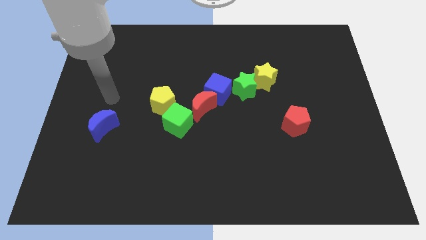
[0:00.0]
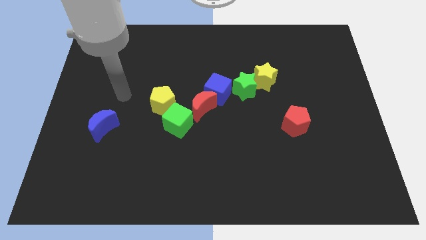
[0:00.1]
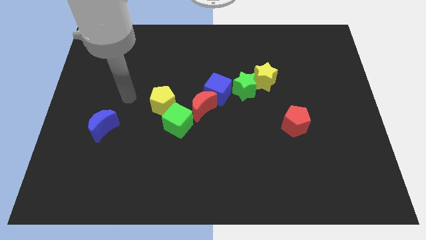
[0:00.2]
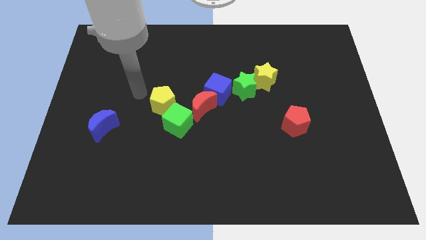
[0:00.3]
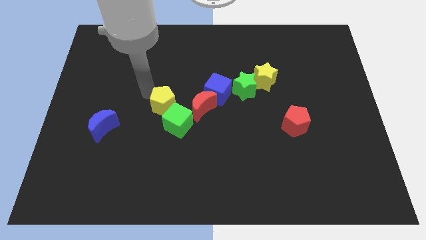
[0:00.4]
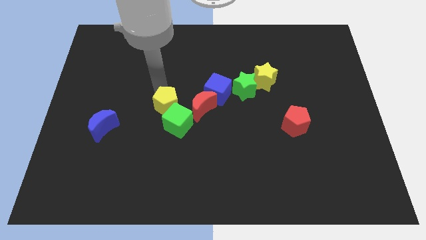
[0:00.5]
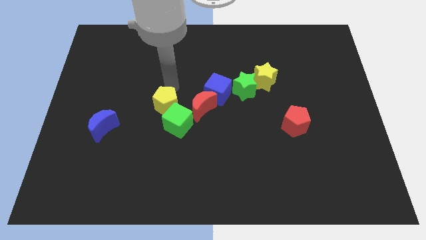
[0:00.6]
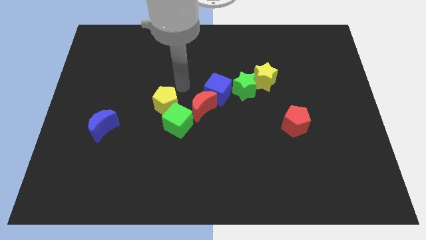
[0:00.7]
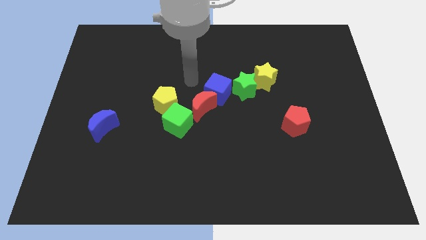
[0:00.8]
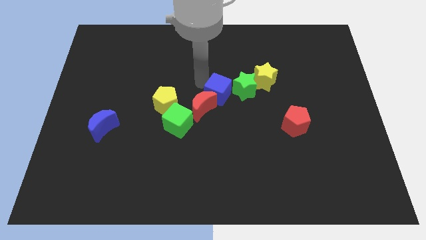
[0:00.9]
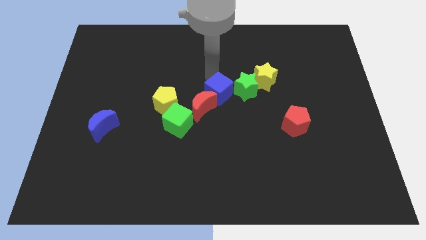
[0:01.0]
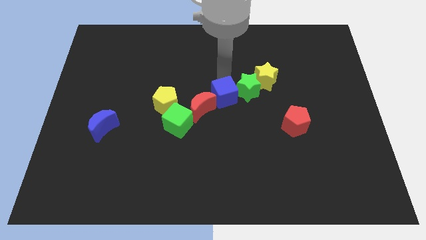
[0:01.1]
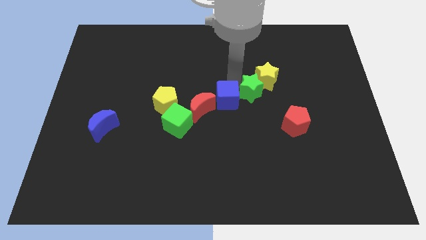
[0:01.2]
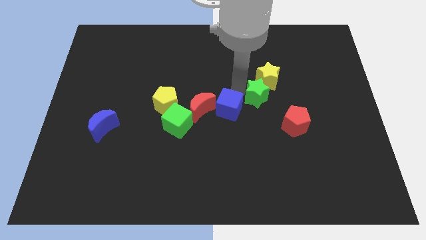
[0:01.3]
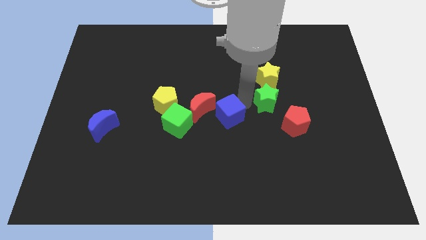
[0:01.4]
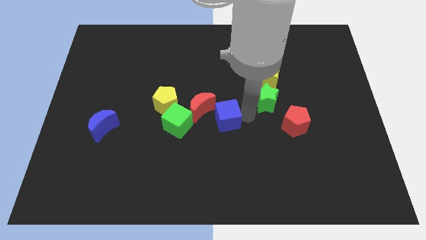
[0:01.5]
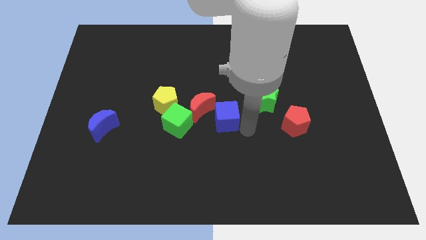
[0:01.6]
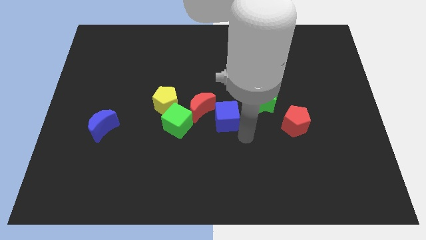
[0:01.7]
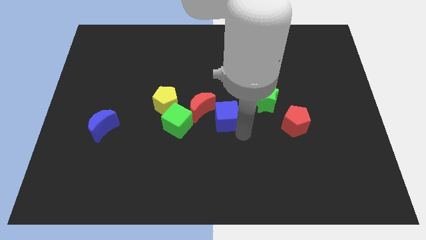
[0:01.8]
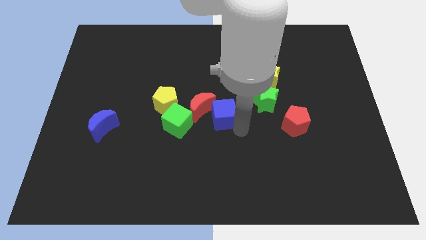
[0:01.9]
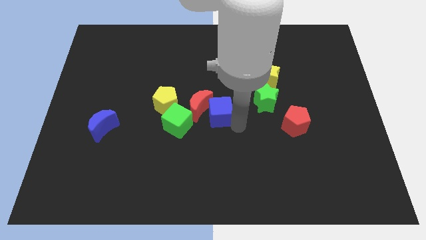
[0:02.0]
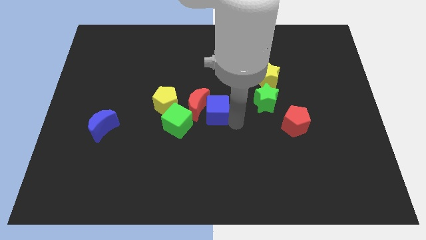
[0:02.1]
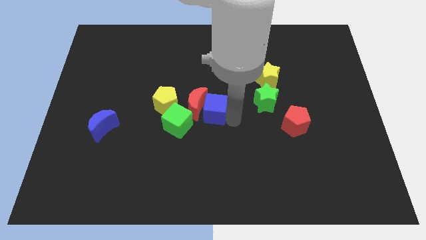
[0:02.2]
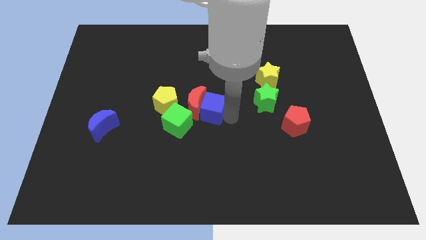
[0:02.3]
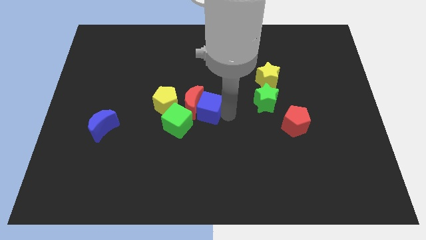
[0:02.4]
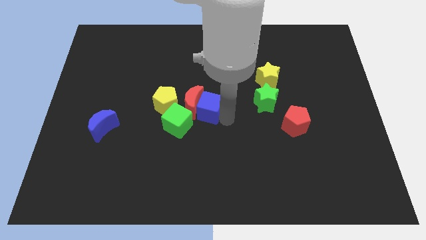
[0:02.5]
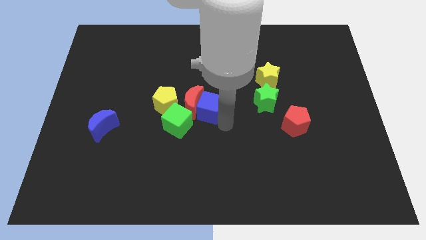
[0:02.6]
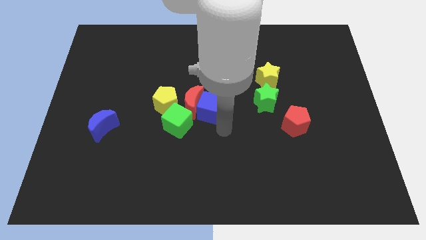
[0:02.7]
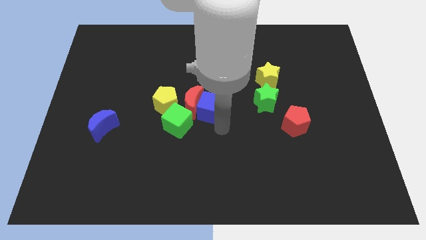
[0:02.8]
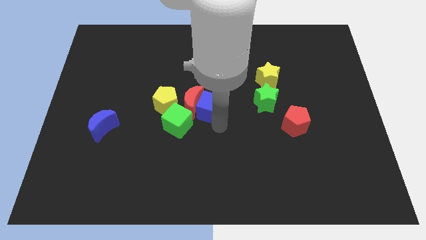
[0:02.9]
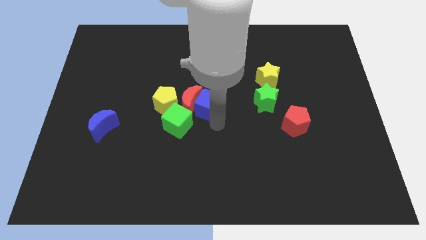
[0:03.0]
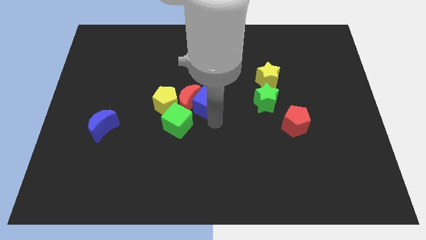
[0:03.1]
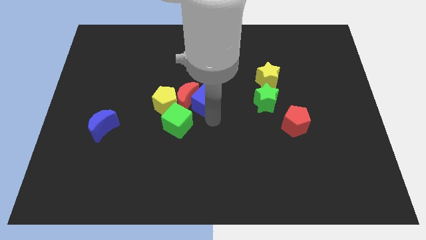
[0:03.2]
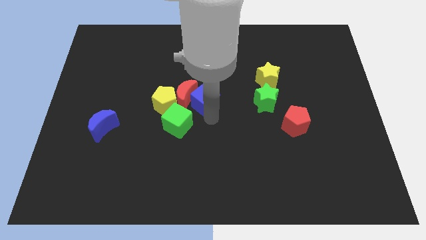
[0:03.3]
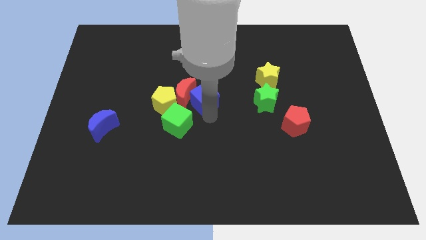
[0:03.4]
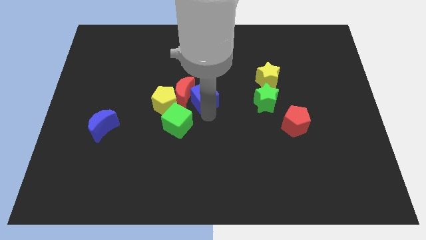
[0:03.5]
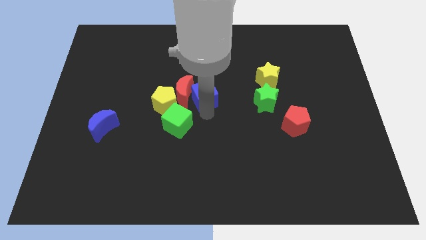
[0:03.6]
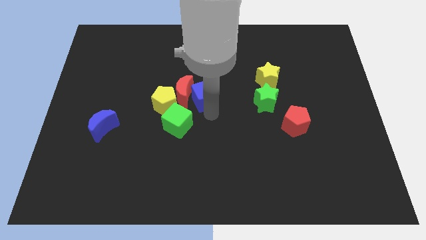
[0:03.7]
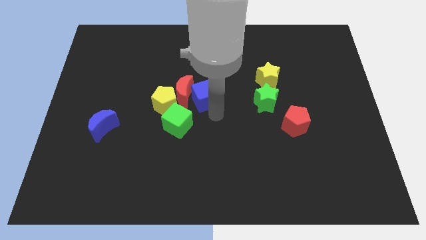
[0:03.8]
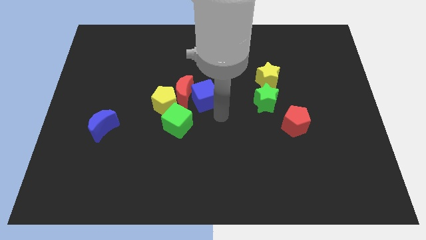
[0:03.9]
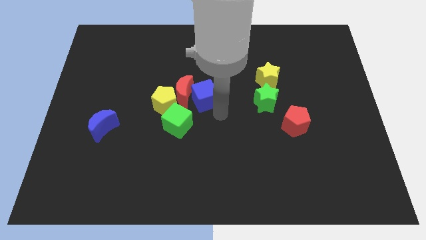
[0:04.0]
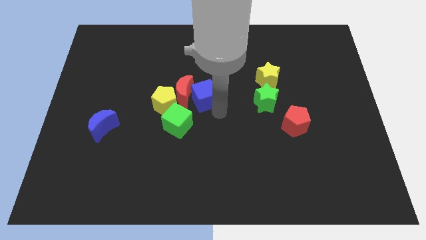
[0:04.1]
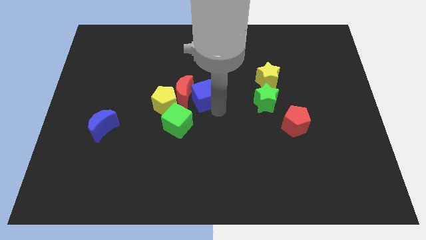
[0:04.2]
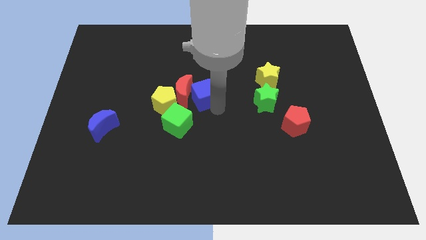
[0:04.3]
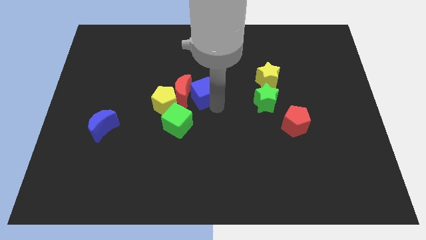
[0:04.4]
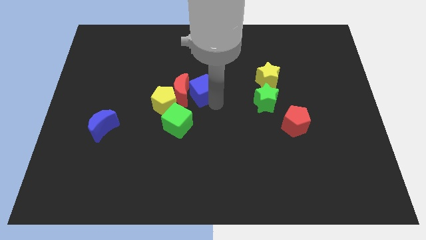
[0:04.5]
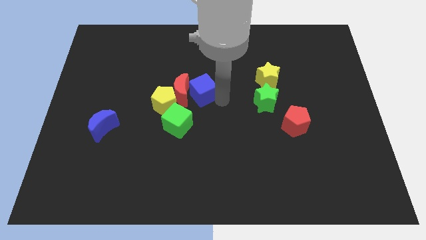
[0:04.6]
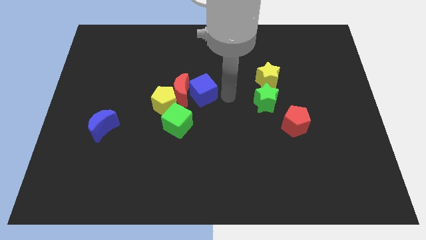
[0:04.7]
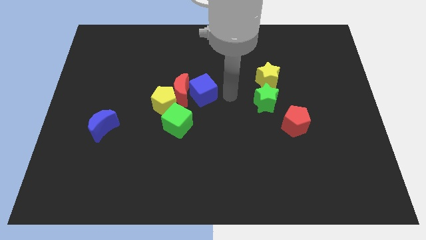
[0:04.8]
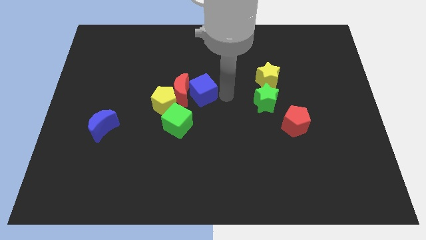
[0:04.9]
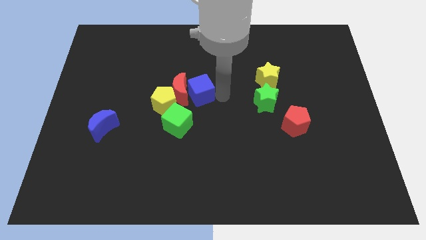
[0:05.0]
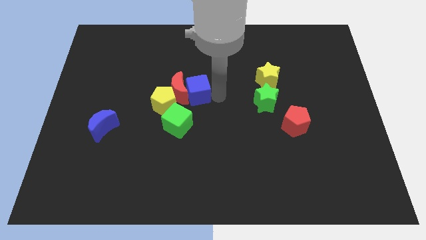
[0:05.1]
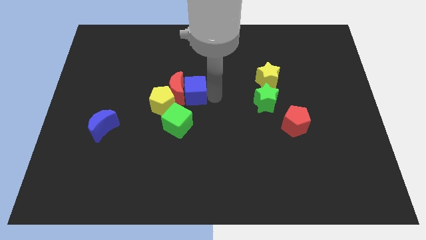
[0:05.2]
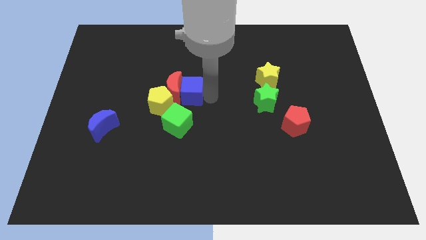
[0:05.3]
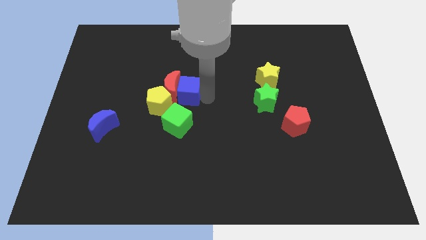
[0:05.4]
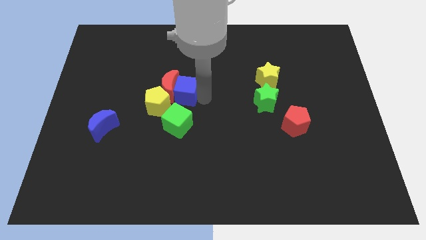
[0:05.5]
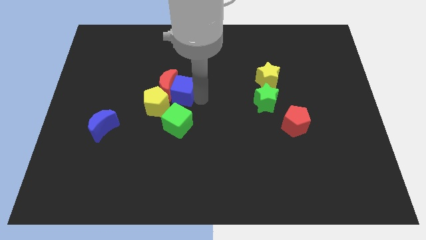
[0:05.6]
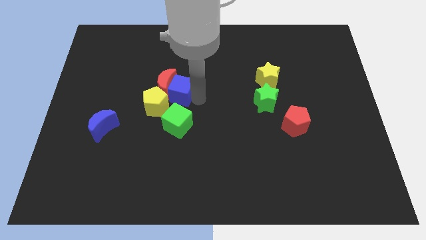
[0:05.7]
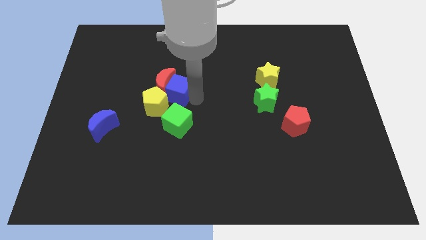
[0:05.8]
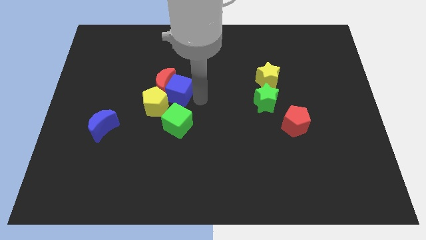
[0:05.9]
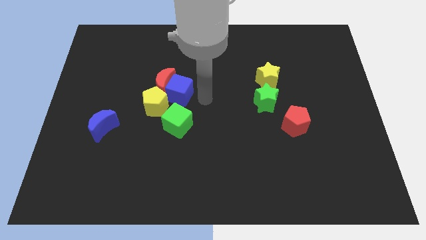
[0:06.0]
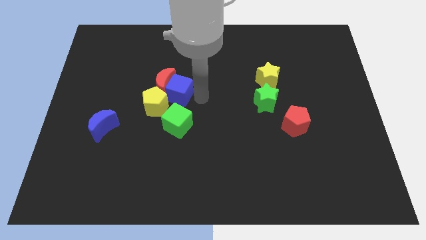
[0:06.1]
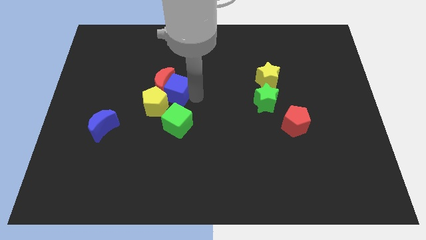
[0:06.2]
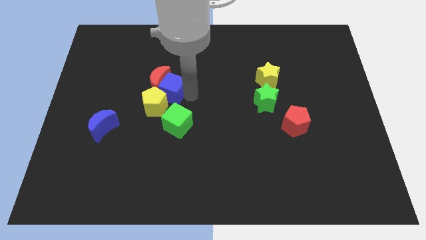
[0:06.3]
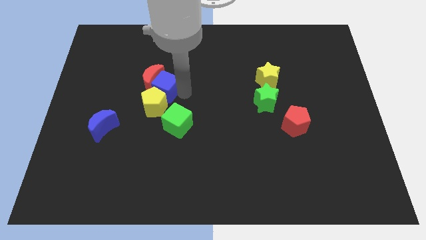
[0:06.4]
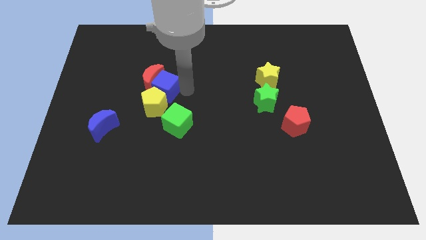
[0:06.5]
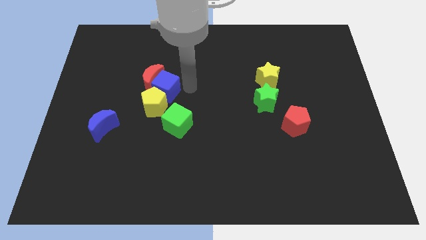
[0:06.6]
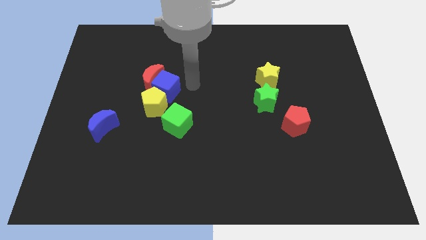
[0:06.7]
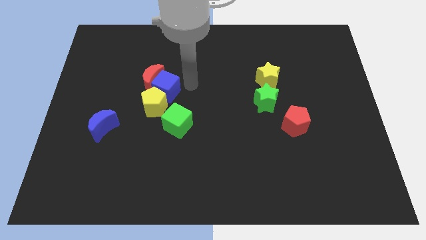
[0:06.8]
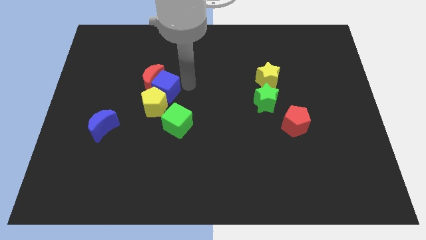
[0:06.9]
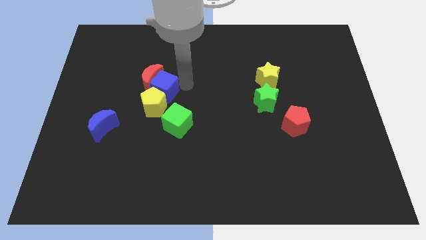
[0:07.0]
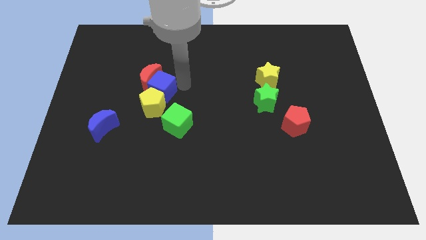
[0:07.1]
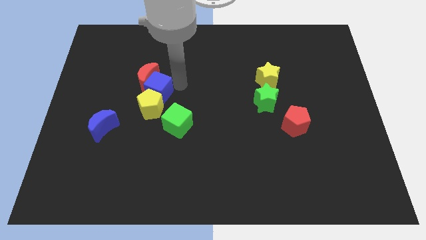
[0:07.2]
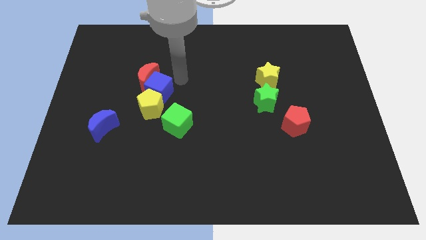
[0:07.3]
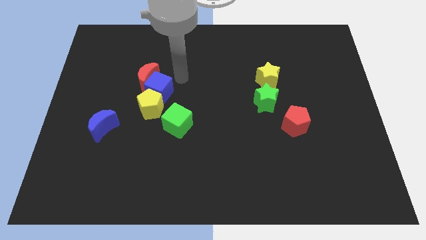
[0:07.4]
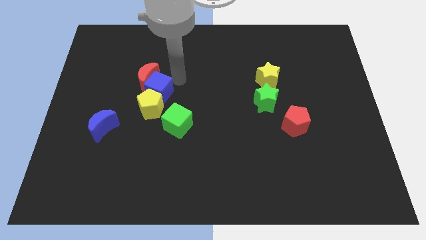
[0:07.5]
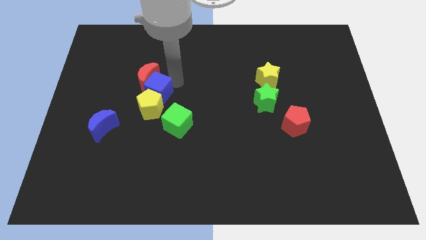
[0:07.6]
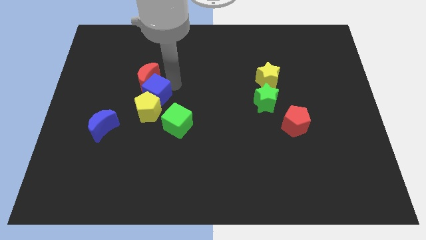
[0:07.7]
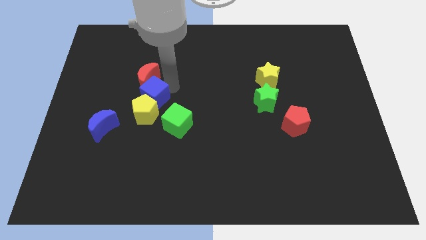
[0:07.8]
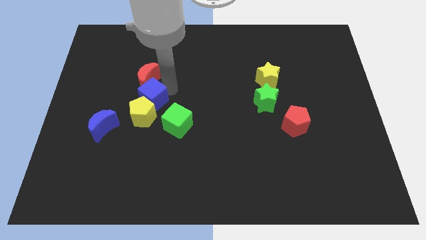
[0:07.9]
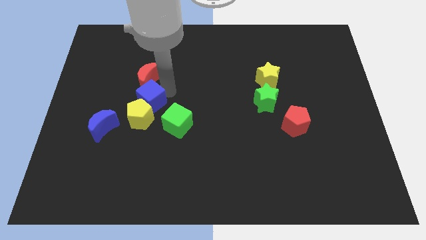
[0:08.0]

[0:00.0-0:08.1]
put the blue cube diagonally up and to the right of the blue moon
